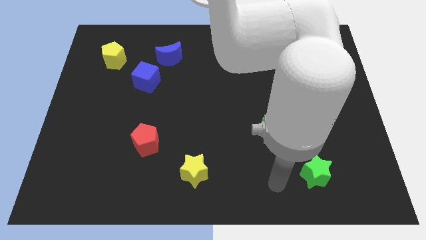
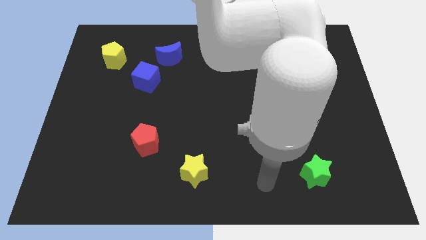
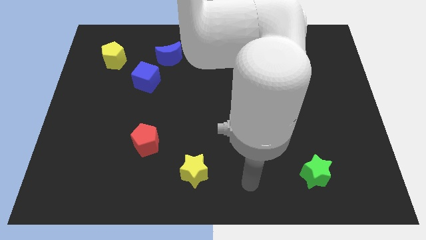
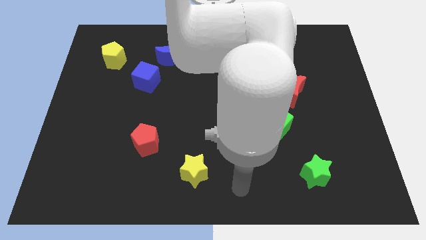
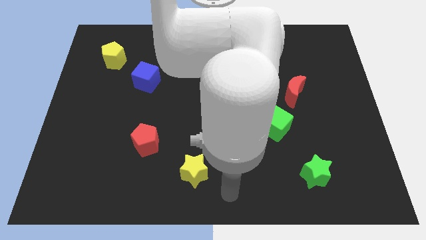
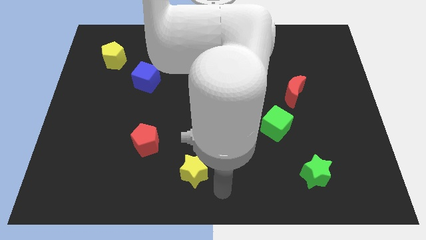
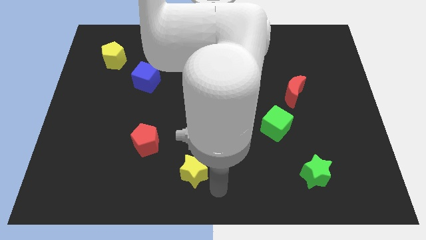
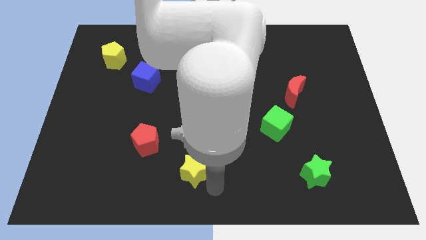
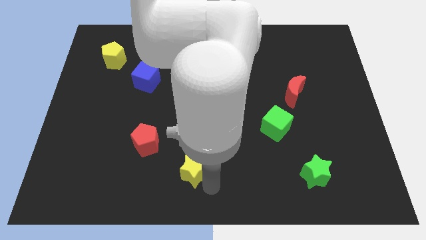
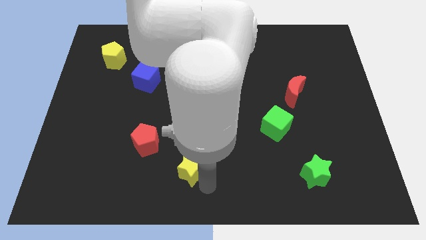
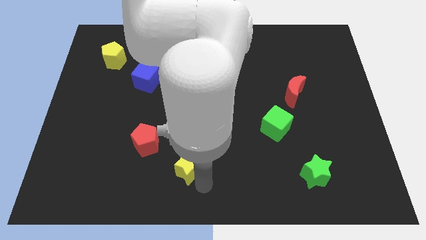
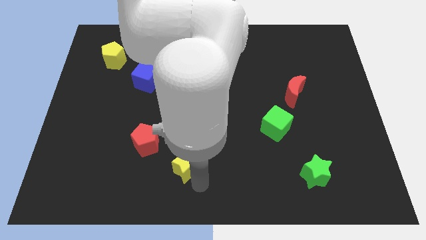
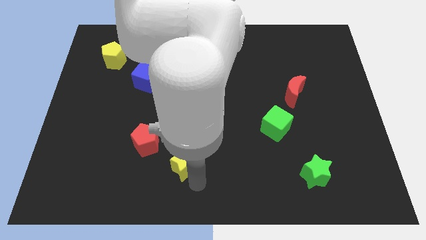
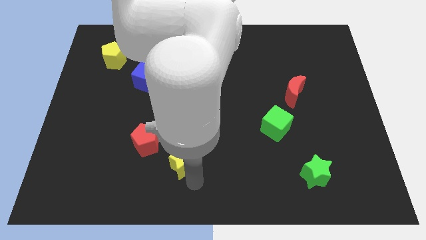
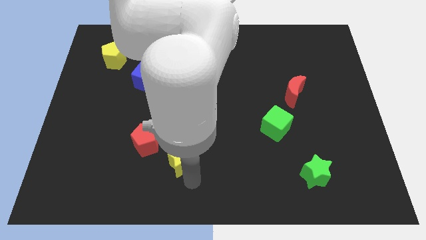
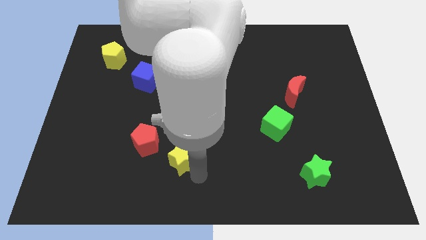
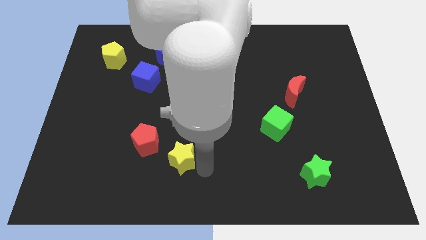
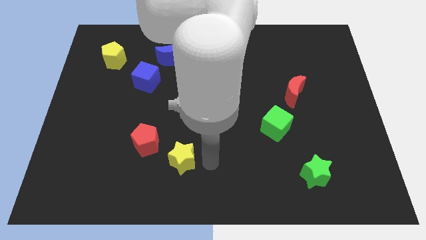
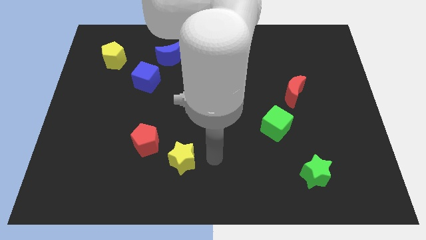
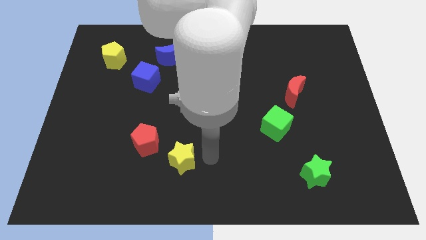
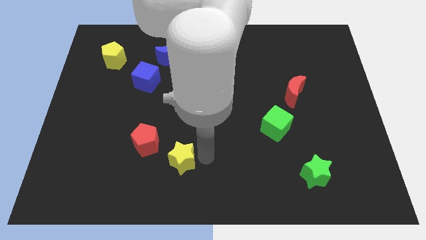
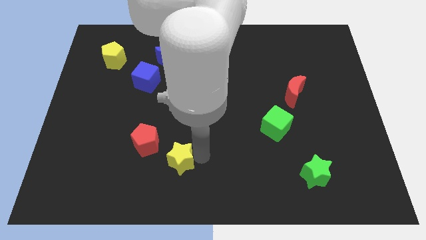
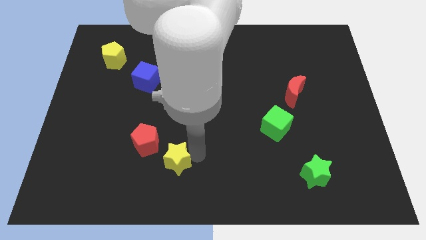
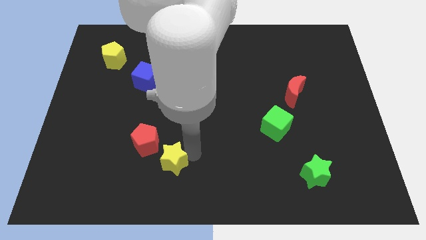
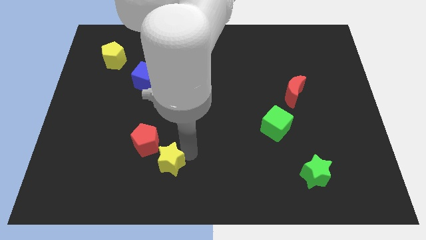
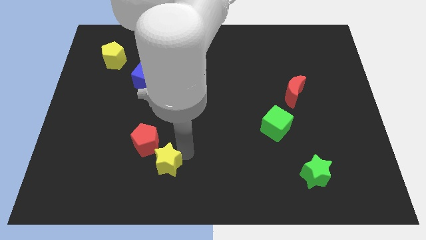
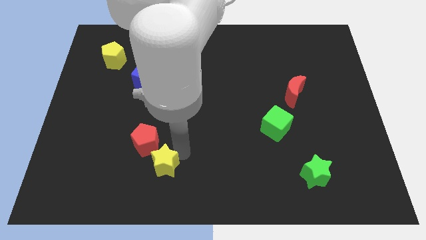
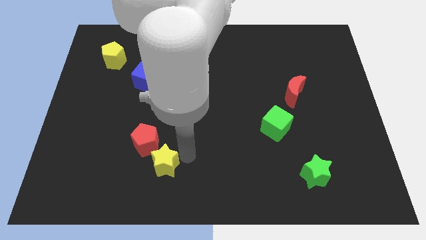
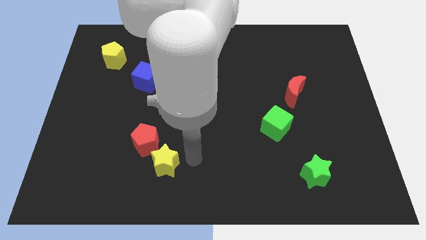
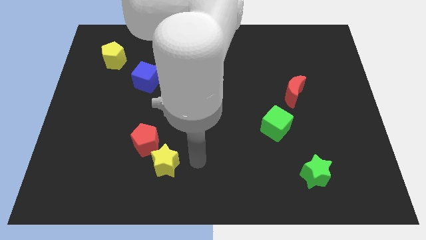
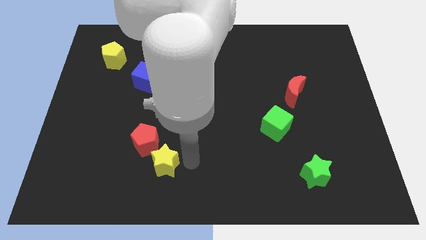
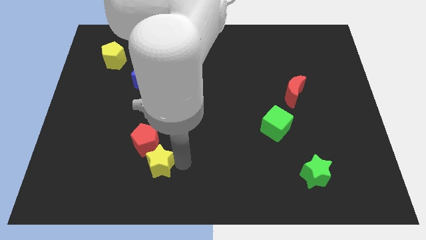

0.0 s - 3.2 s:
move the yellow star left slightly

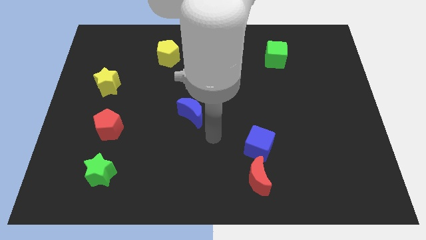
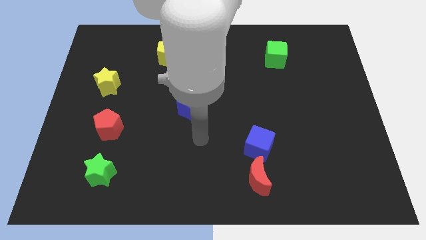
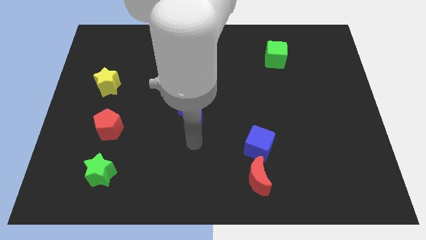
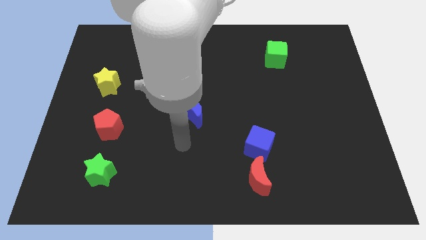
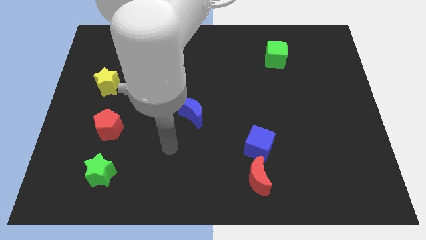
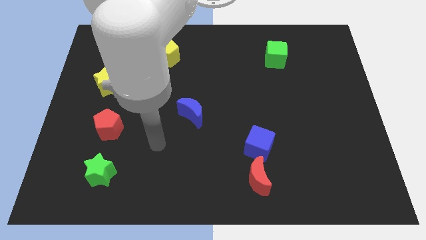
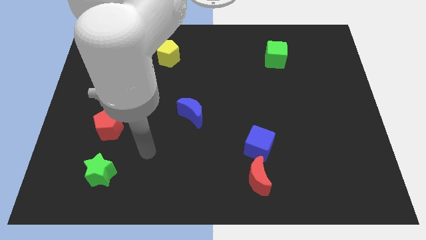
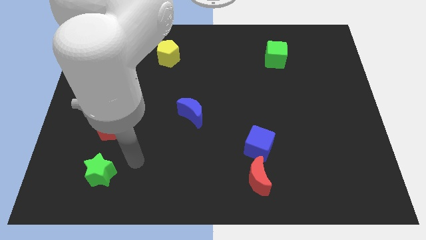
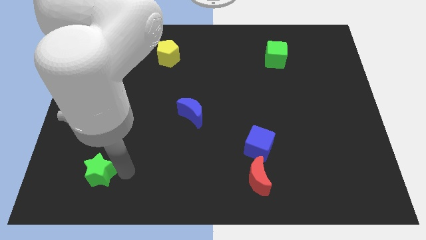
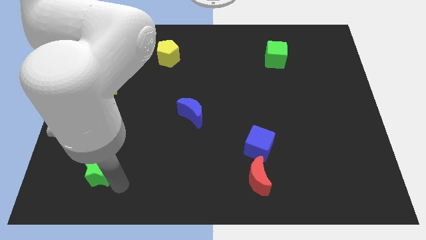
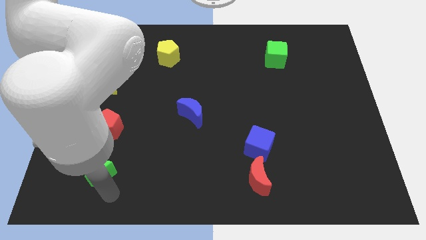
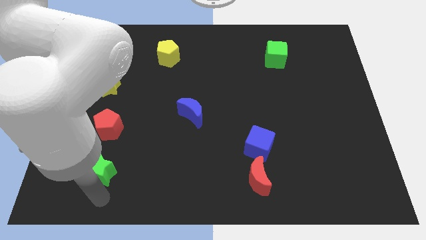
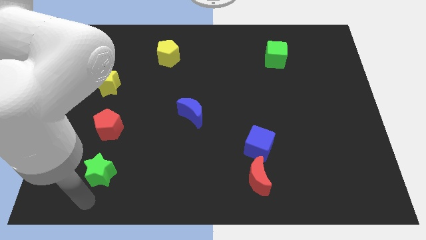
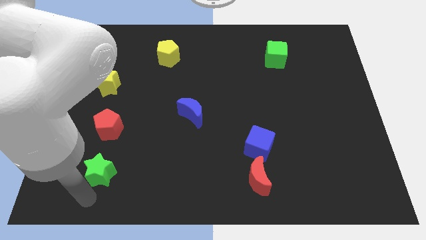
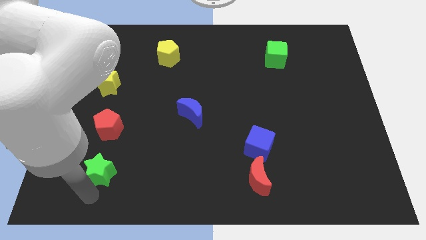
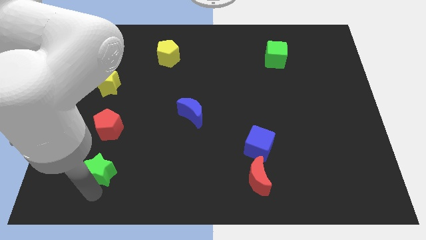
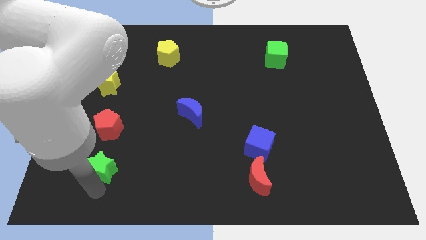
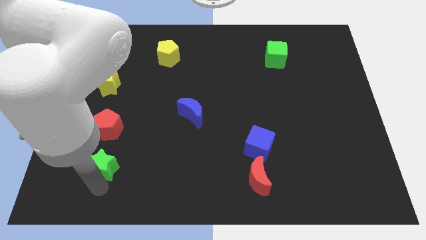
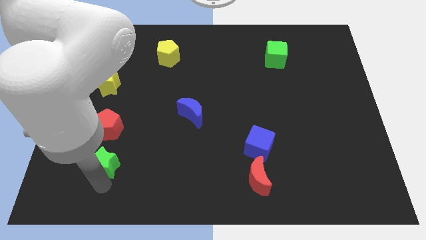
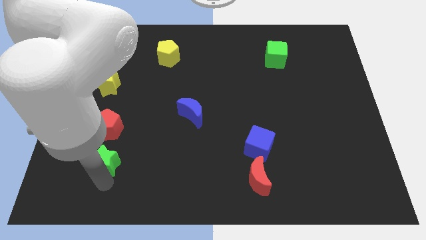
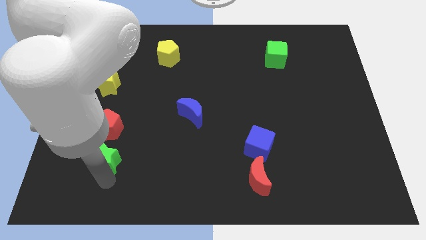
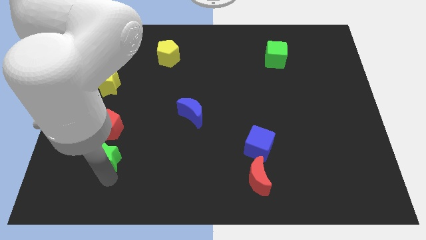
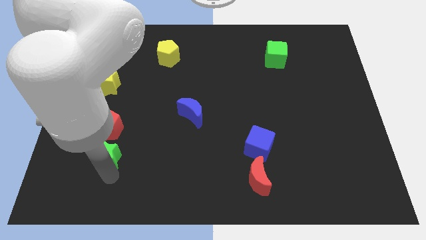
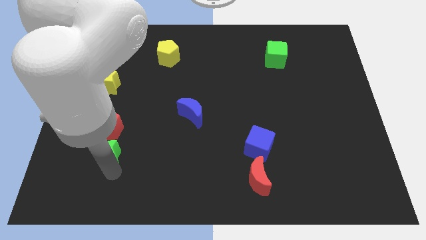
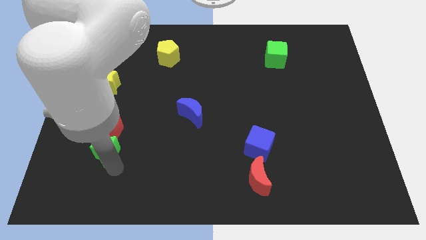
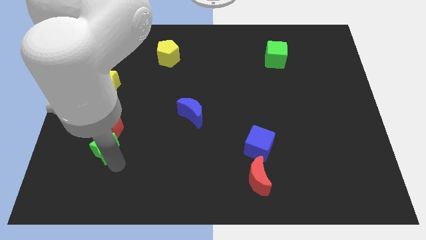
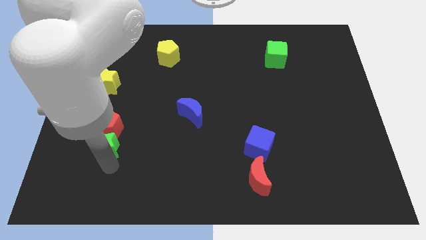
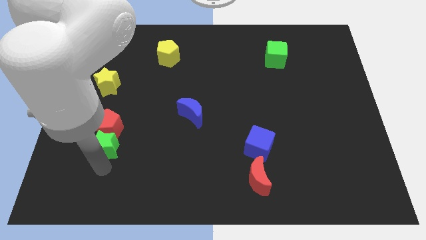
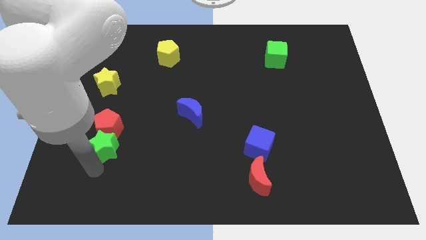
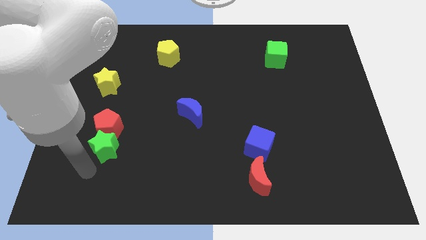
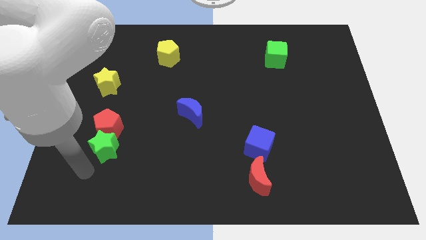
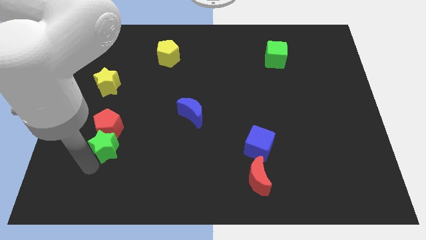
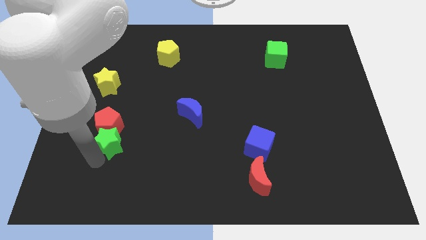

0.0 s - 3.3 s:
push the green star up a little bit

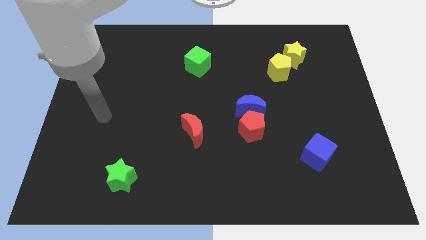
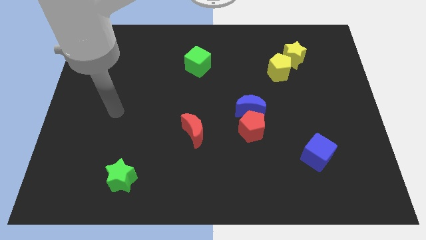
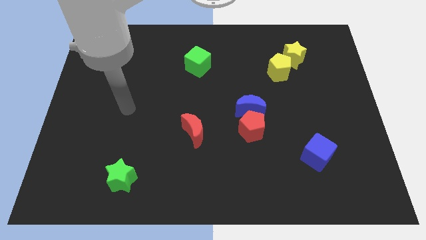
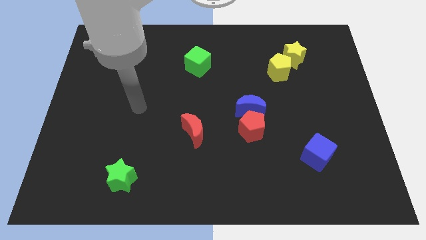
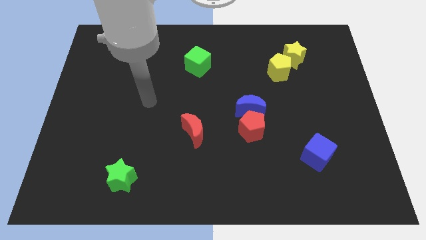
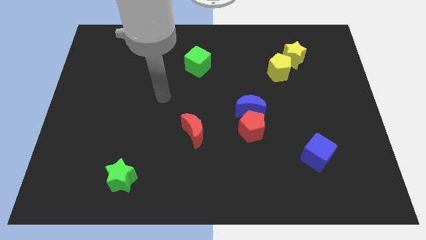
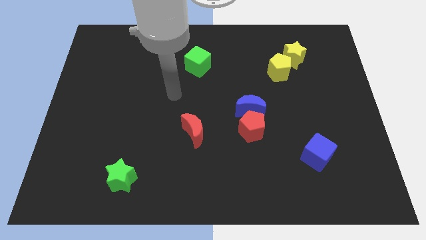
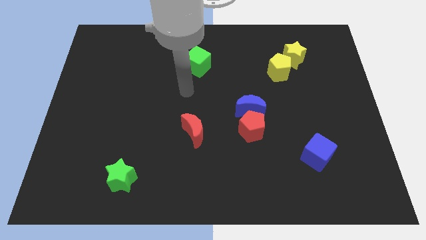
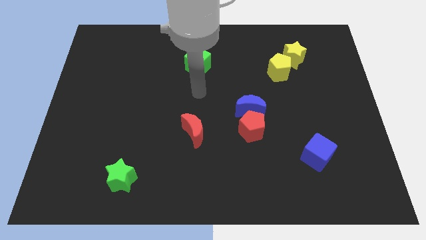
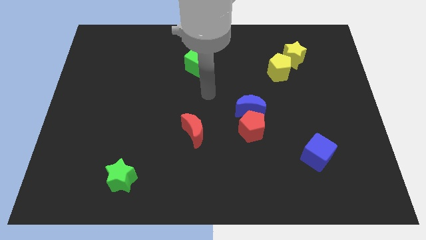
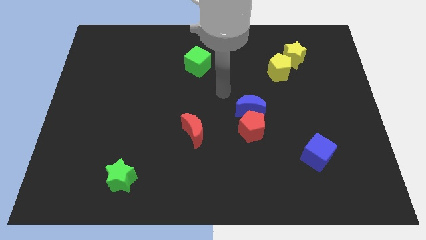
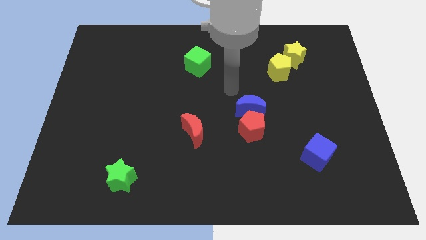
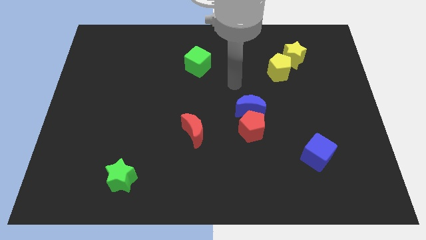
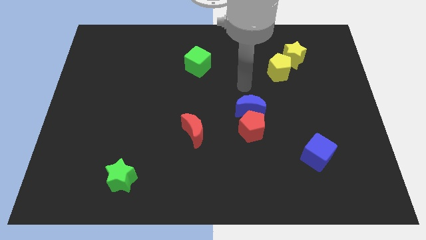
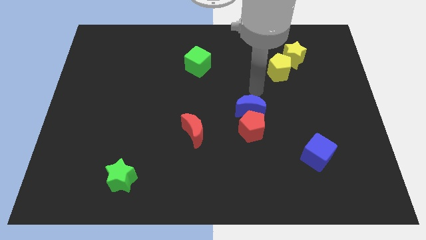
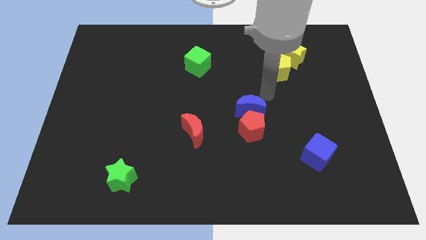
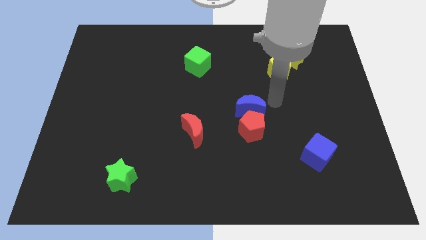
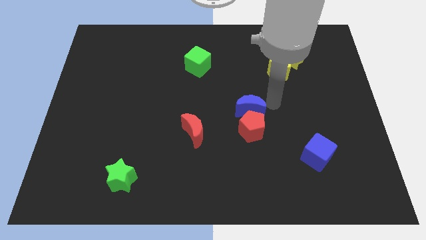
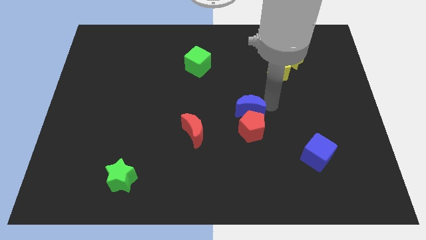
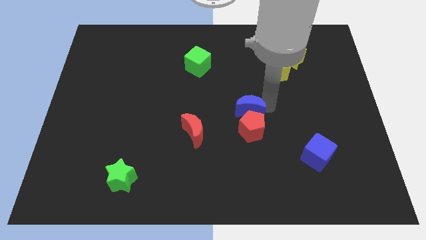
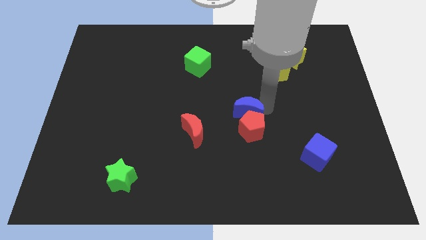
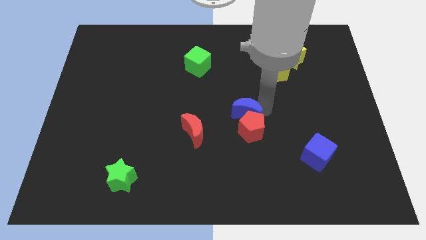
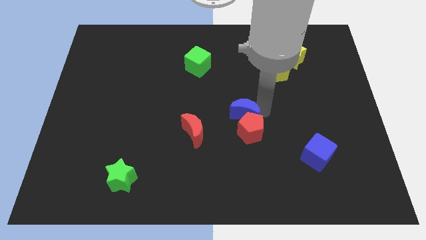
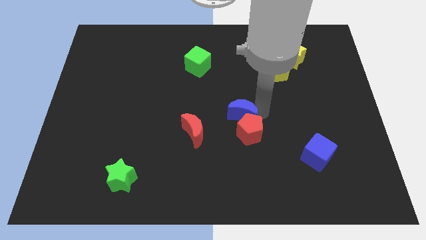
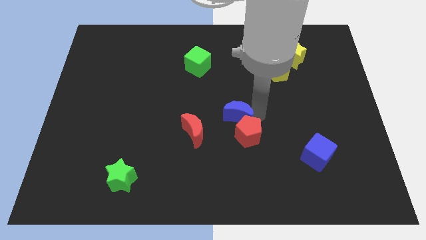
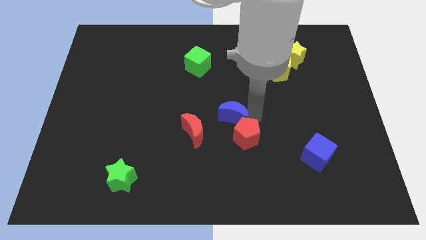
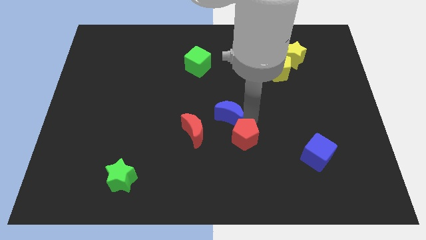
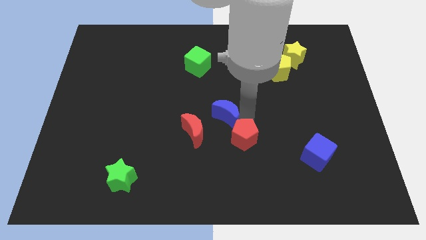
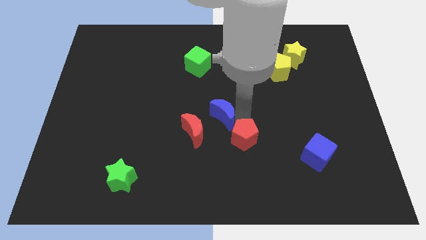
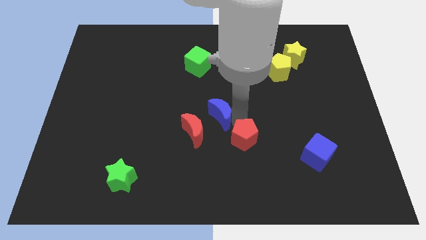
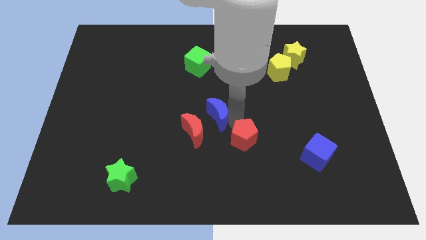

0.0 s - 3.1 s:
push the blue moon slightly to the left
